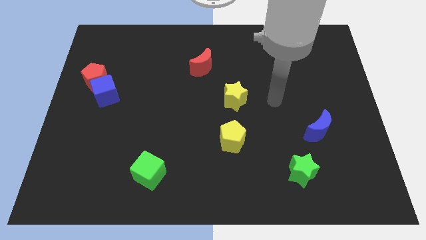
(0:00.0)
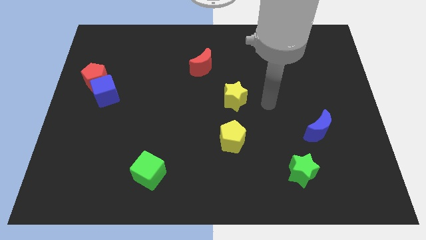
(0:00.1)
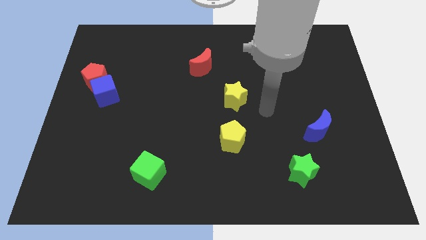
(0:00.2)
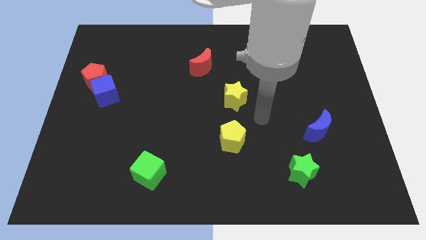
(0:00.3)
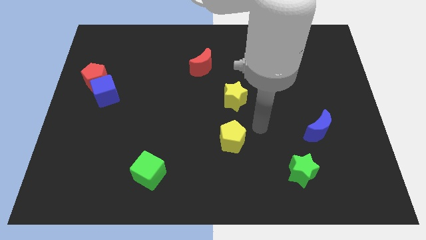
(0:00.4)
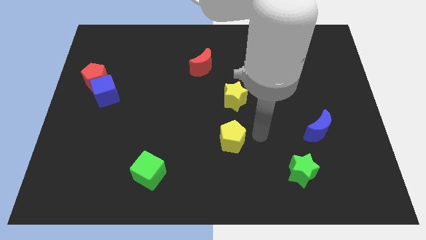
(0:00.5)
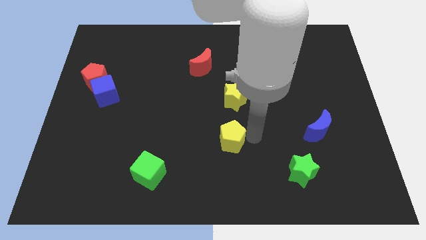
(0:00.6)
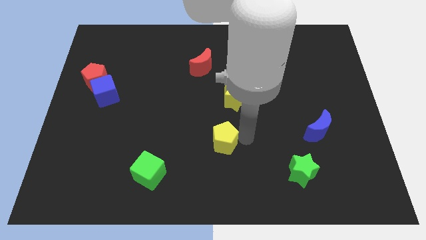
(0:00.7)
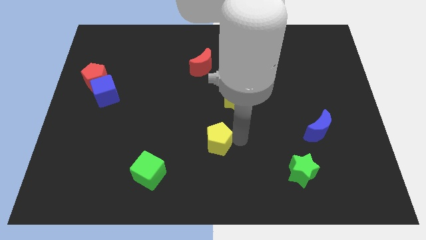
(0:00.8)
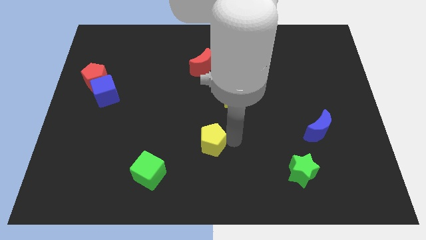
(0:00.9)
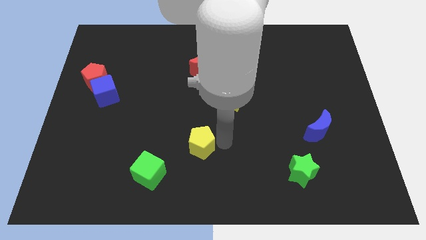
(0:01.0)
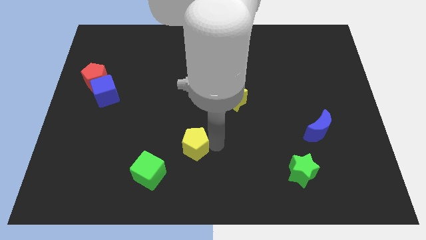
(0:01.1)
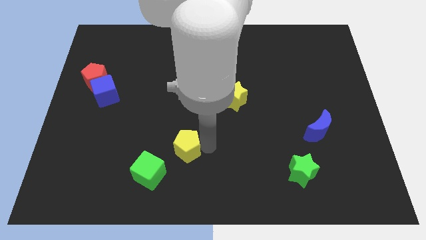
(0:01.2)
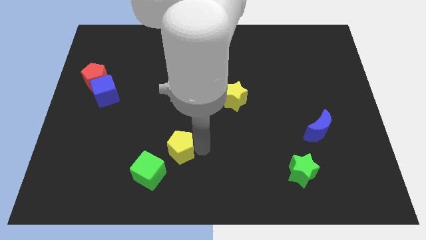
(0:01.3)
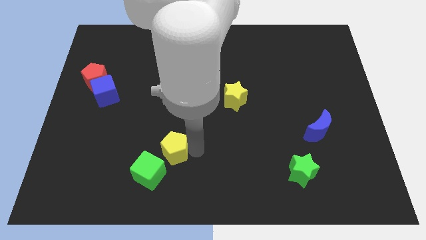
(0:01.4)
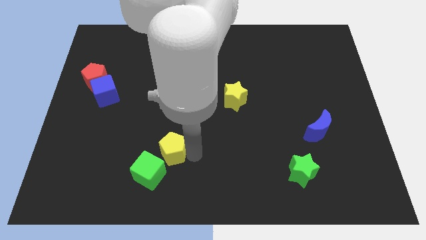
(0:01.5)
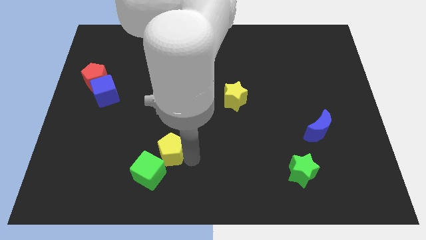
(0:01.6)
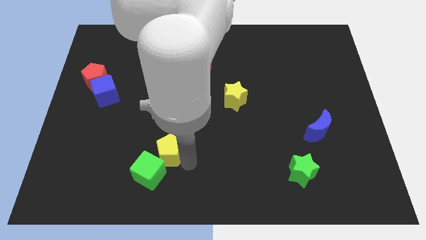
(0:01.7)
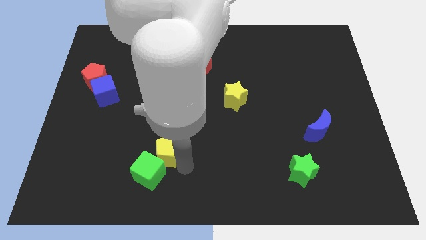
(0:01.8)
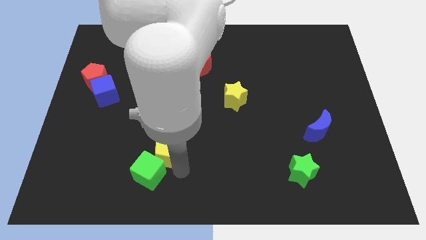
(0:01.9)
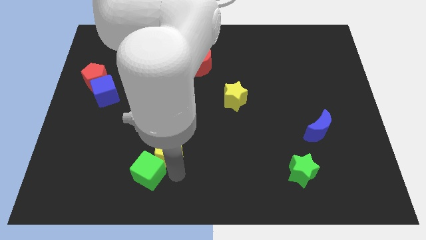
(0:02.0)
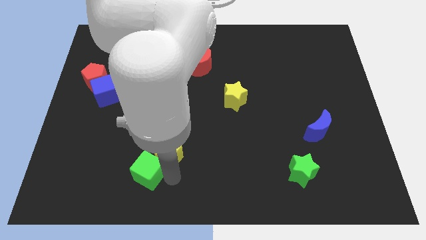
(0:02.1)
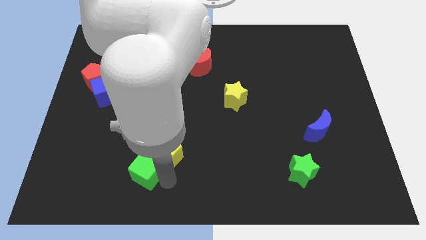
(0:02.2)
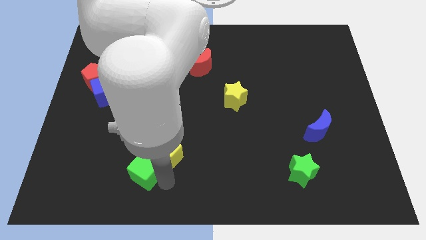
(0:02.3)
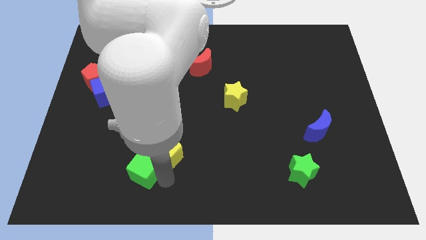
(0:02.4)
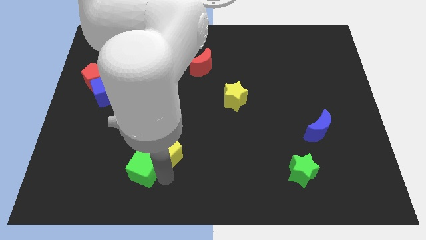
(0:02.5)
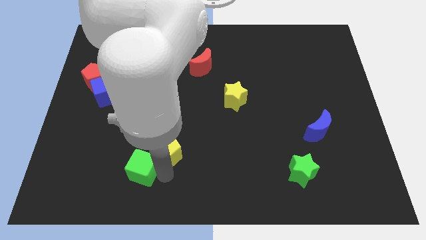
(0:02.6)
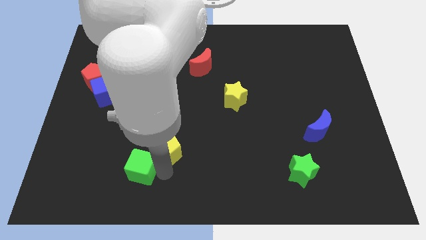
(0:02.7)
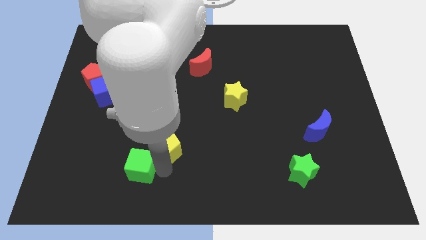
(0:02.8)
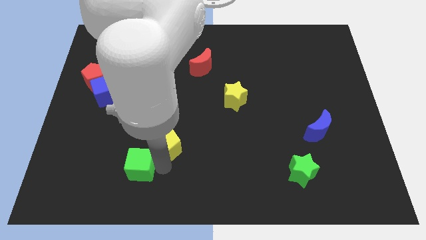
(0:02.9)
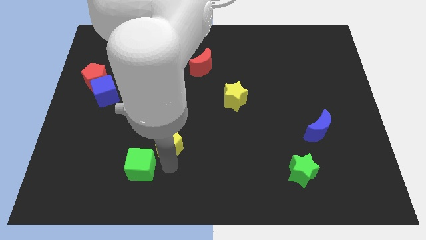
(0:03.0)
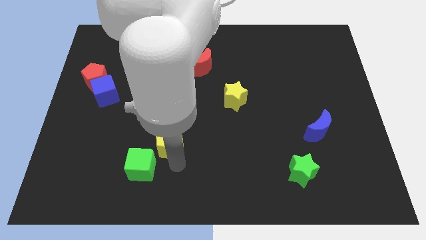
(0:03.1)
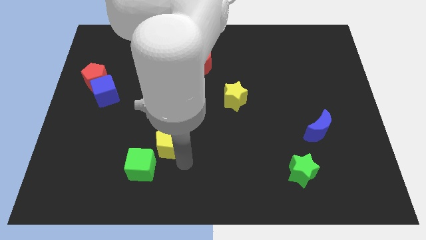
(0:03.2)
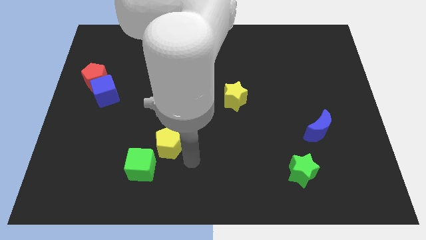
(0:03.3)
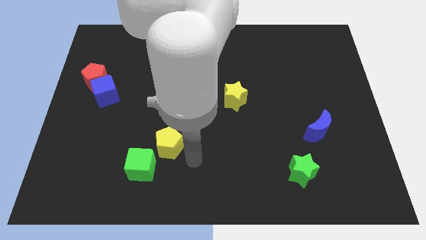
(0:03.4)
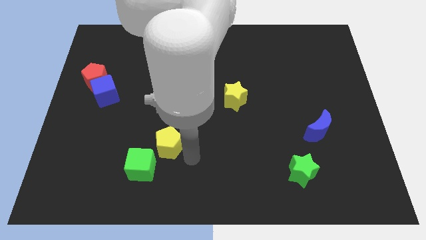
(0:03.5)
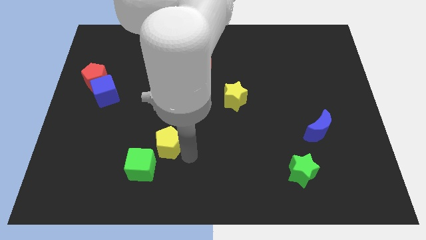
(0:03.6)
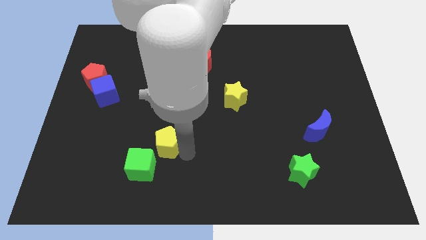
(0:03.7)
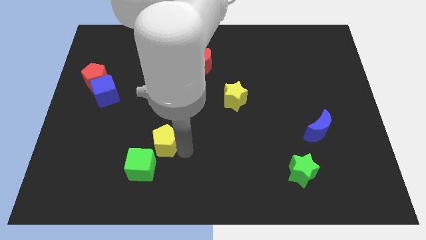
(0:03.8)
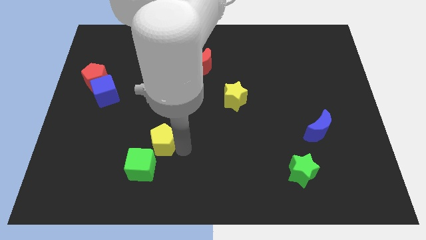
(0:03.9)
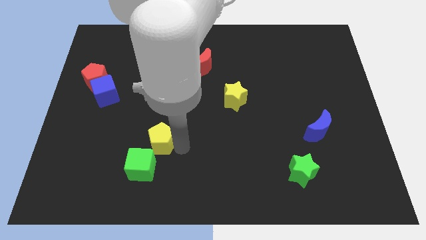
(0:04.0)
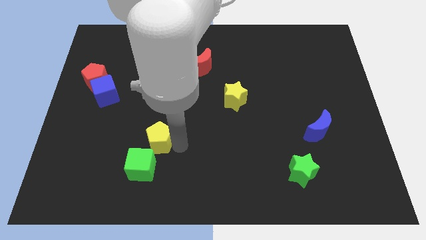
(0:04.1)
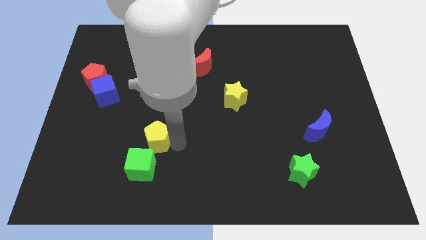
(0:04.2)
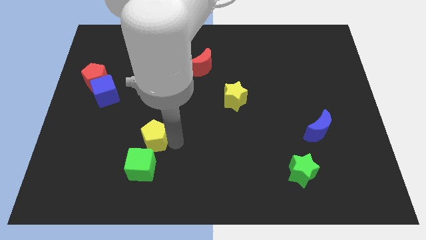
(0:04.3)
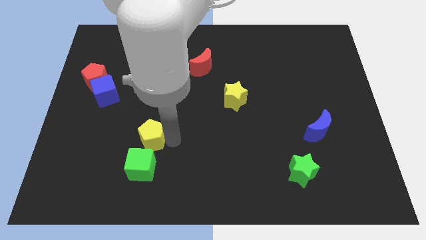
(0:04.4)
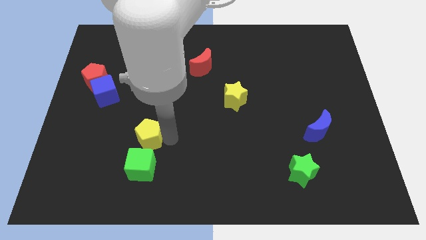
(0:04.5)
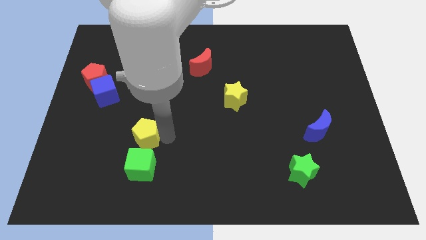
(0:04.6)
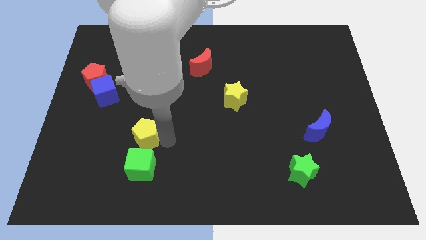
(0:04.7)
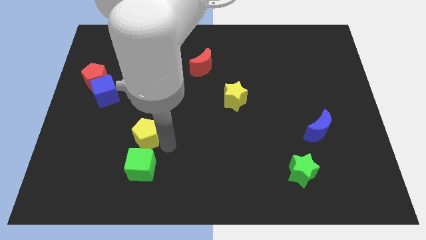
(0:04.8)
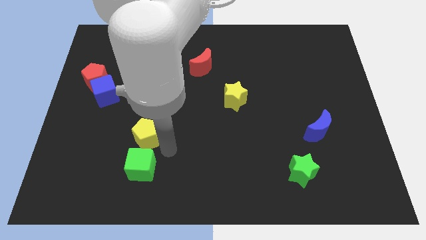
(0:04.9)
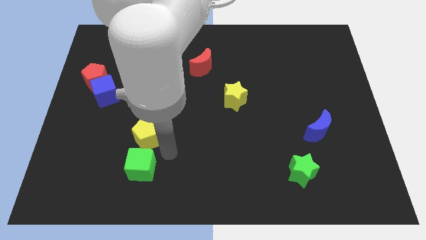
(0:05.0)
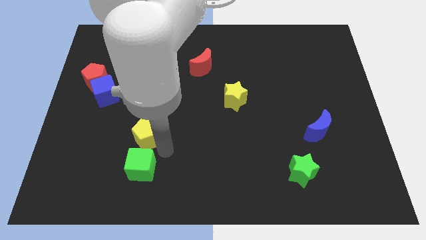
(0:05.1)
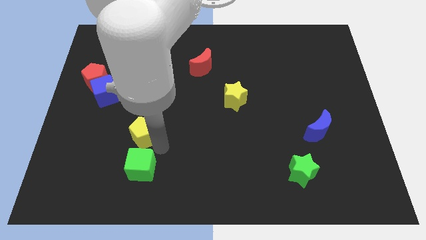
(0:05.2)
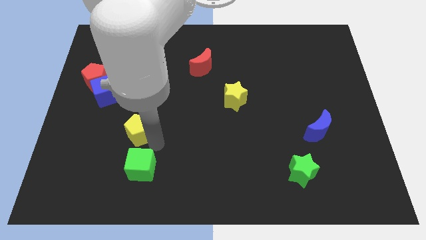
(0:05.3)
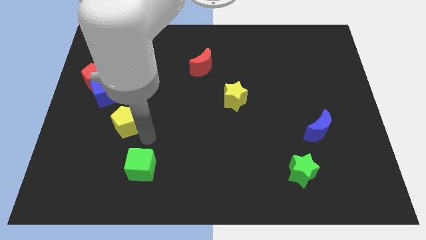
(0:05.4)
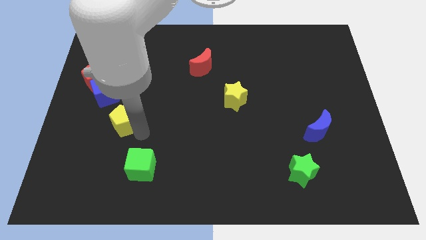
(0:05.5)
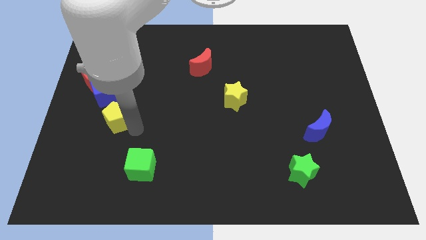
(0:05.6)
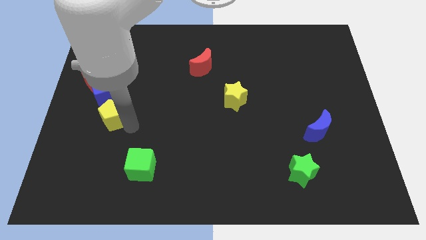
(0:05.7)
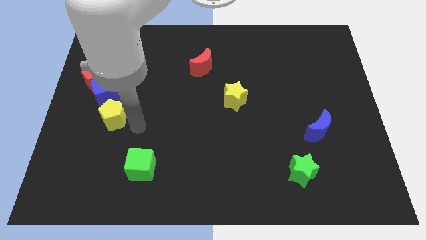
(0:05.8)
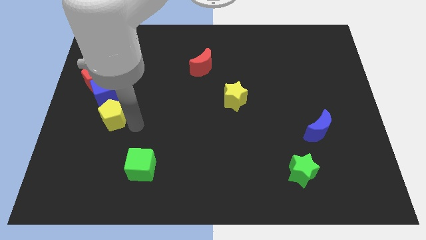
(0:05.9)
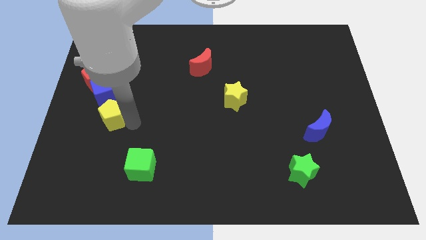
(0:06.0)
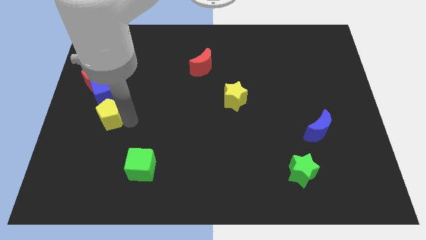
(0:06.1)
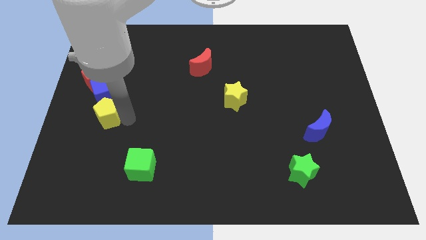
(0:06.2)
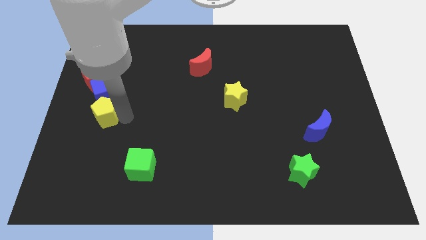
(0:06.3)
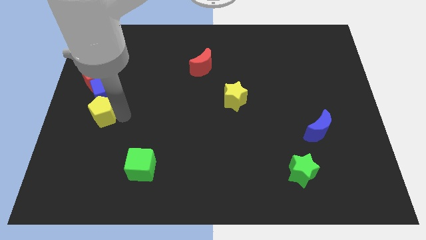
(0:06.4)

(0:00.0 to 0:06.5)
put the yellow pentagon to the center left

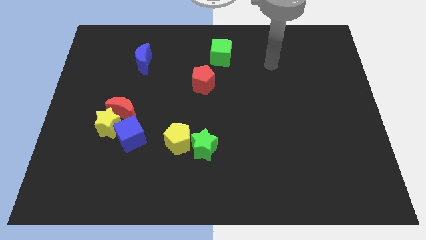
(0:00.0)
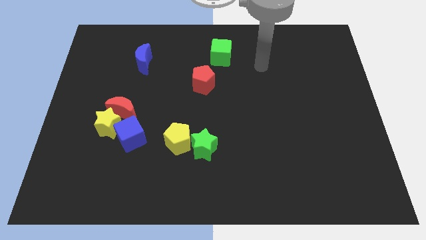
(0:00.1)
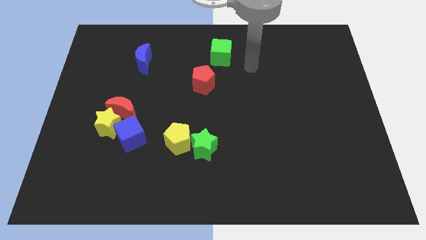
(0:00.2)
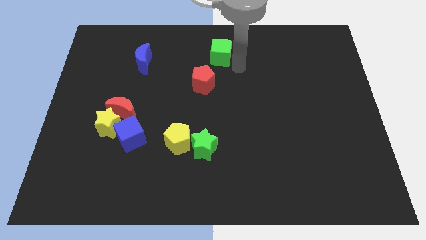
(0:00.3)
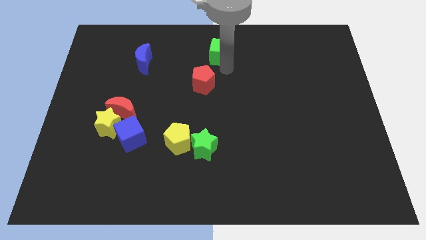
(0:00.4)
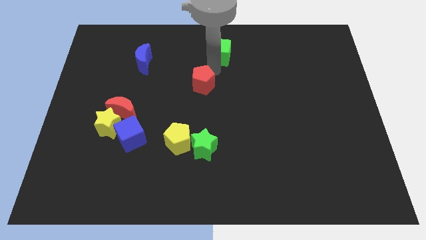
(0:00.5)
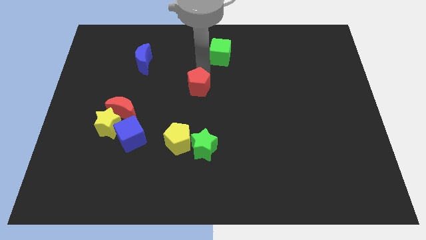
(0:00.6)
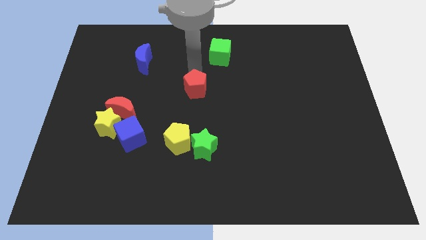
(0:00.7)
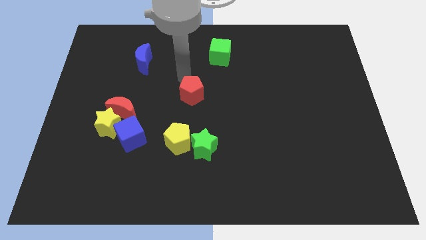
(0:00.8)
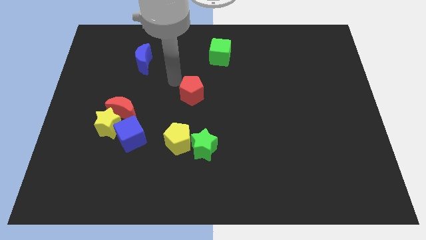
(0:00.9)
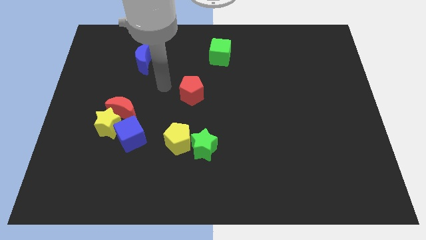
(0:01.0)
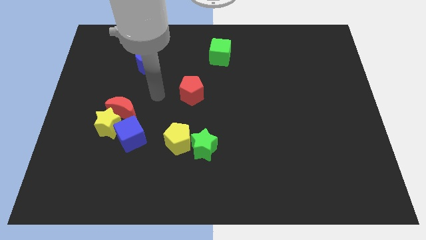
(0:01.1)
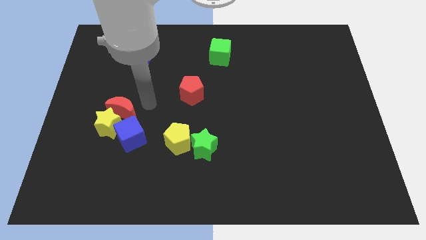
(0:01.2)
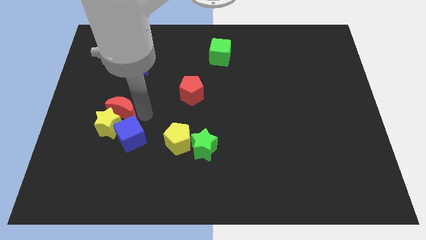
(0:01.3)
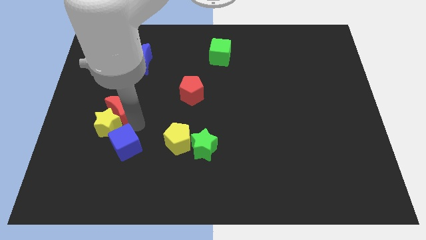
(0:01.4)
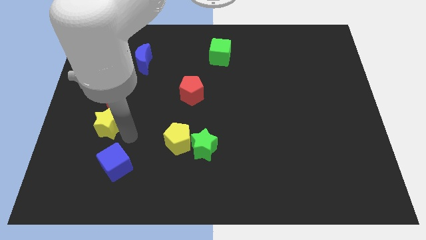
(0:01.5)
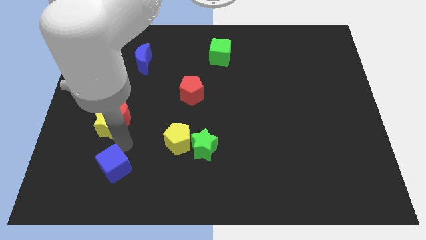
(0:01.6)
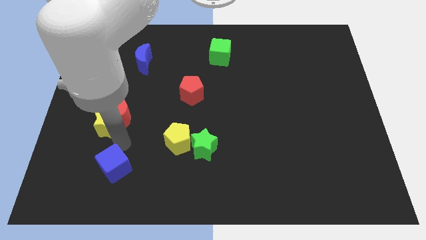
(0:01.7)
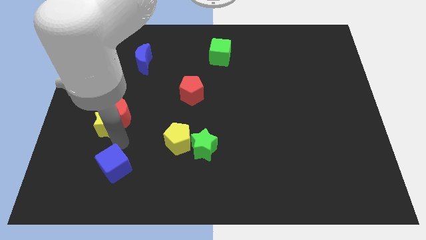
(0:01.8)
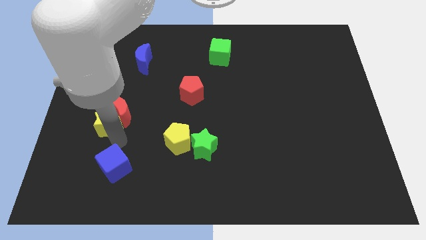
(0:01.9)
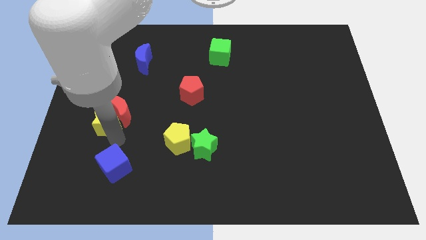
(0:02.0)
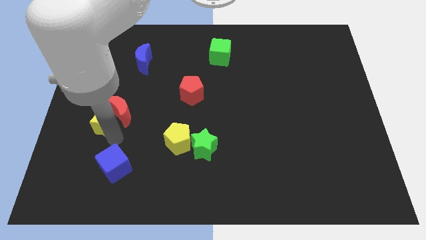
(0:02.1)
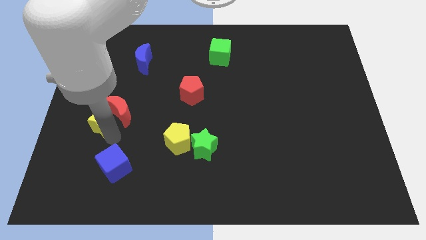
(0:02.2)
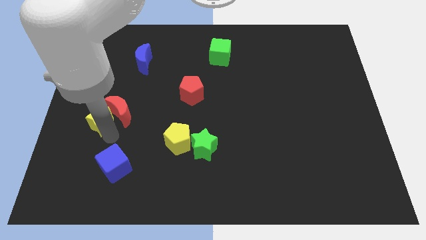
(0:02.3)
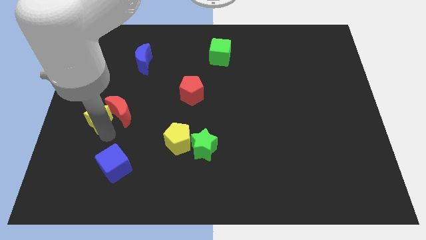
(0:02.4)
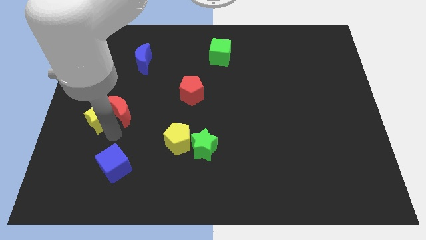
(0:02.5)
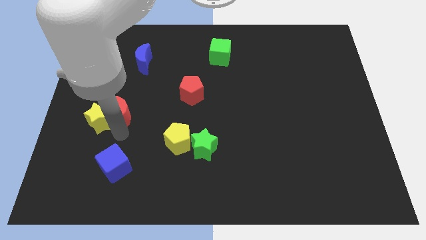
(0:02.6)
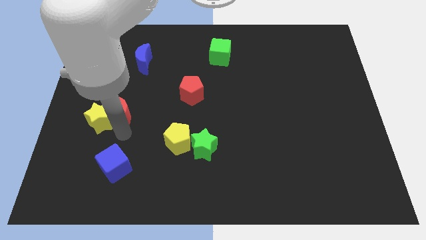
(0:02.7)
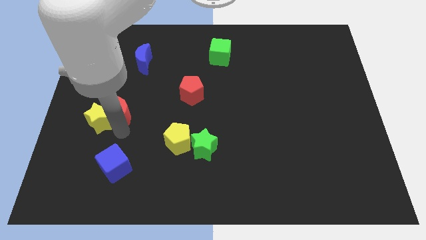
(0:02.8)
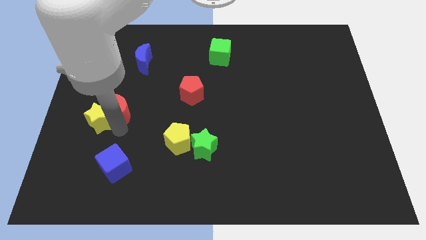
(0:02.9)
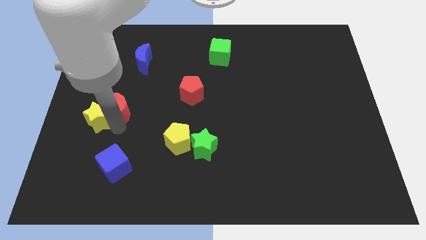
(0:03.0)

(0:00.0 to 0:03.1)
put the yellow star to the center left
